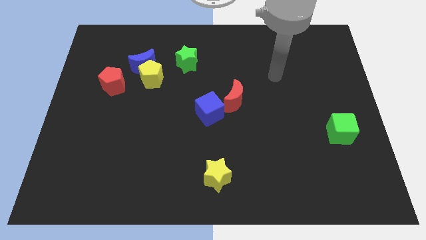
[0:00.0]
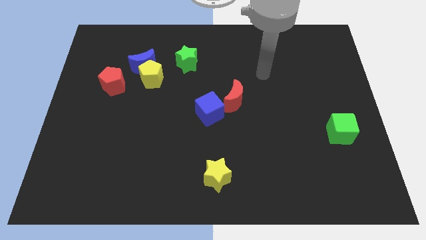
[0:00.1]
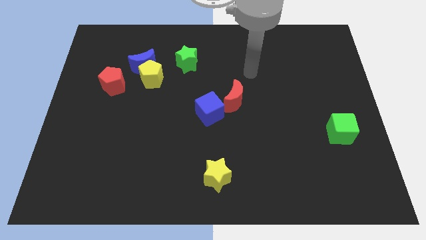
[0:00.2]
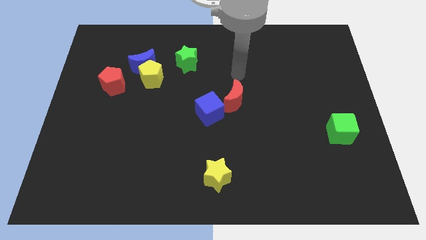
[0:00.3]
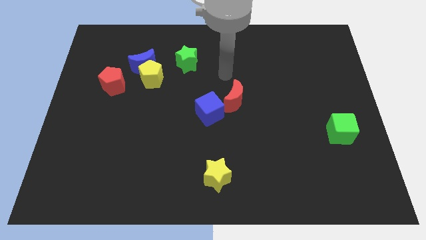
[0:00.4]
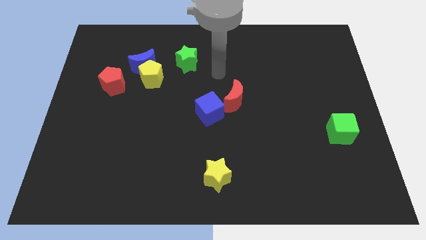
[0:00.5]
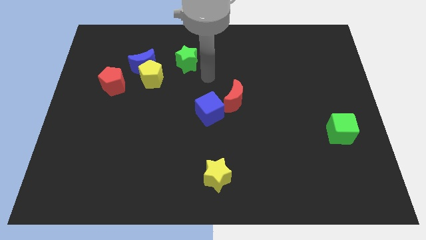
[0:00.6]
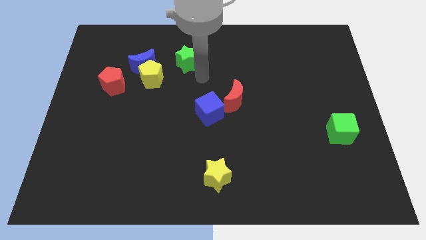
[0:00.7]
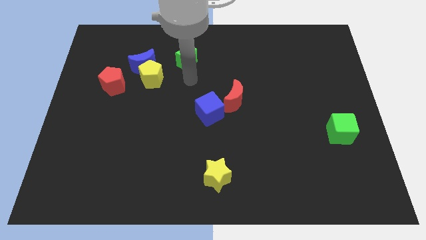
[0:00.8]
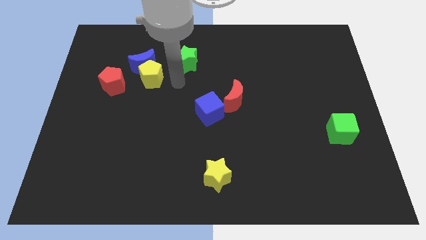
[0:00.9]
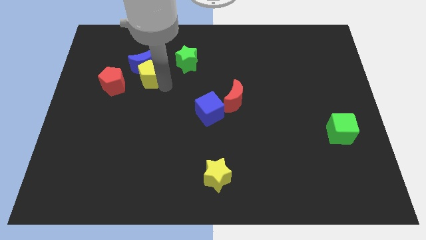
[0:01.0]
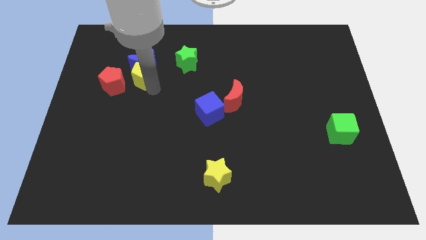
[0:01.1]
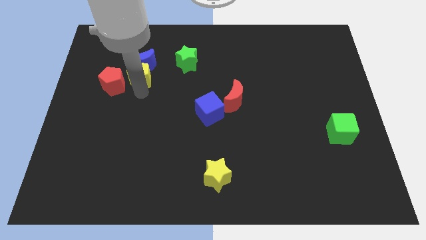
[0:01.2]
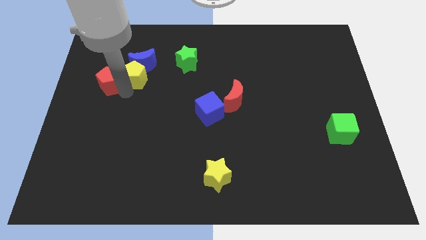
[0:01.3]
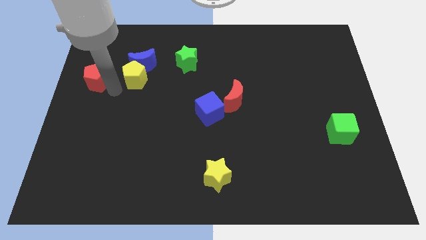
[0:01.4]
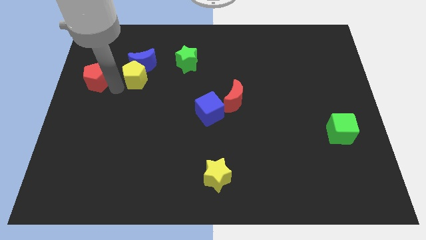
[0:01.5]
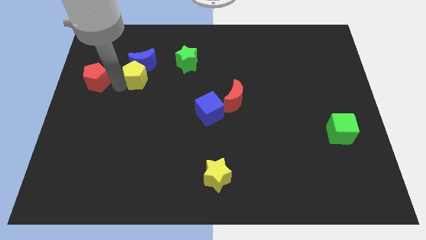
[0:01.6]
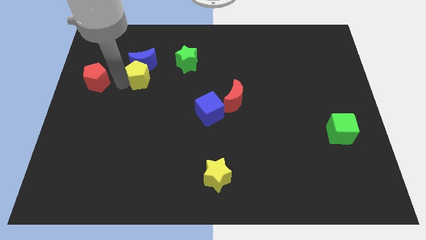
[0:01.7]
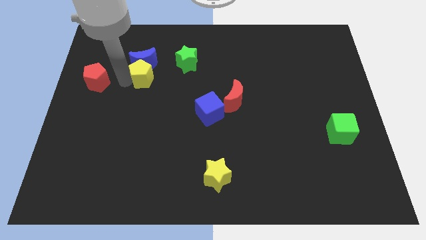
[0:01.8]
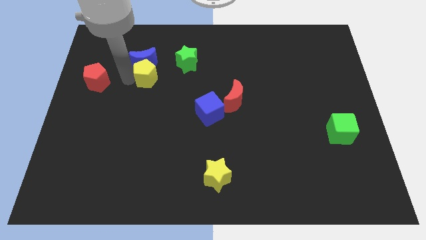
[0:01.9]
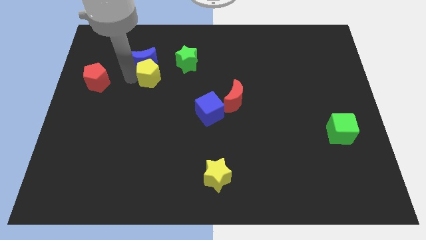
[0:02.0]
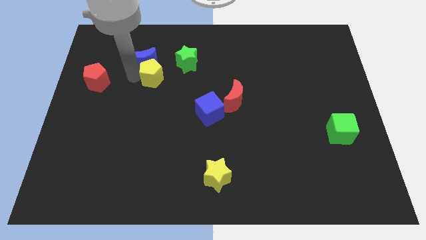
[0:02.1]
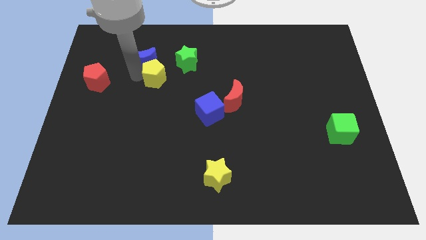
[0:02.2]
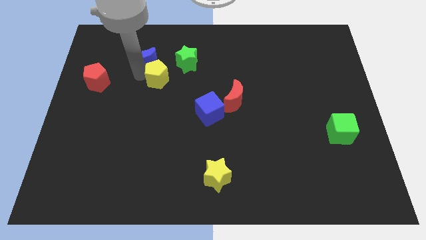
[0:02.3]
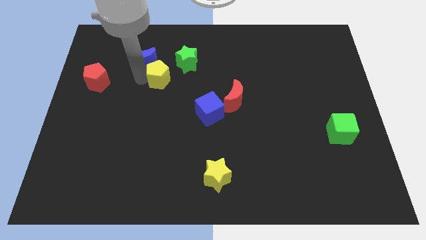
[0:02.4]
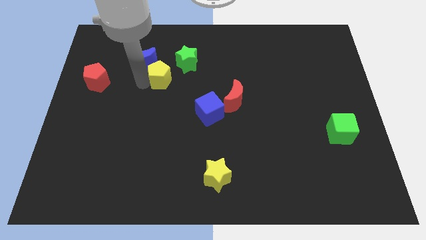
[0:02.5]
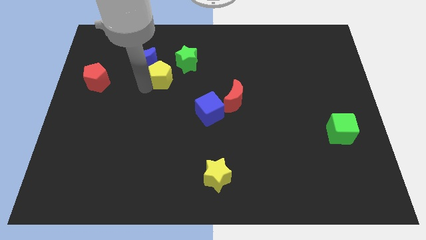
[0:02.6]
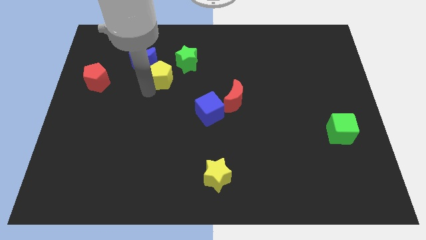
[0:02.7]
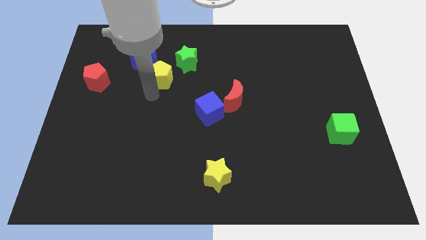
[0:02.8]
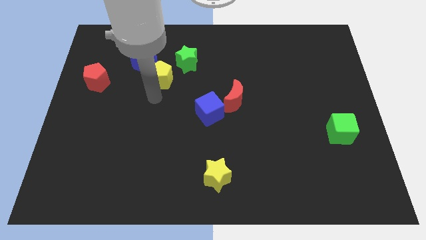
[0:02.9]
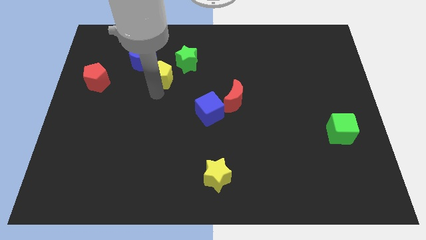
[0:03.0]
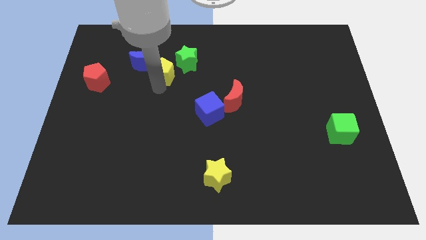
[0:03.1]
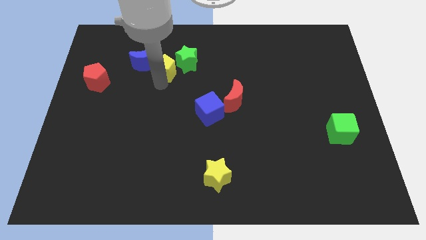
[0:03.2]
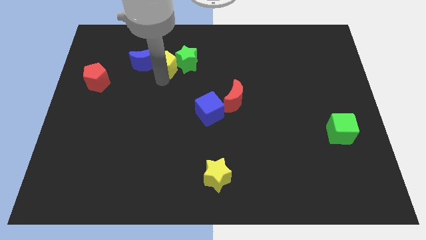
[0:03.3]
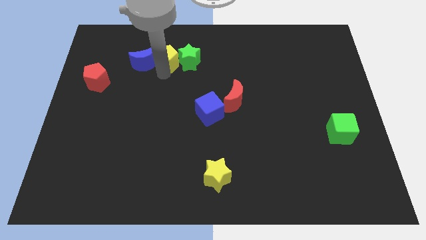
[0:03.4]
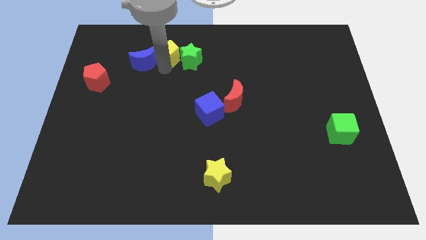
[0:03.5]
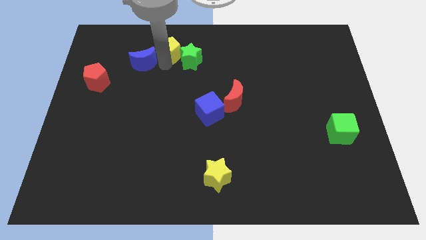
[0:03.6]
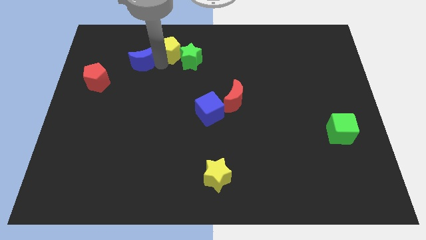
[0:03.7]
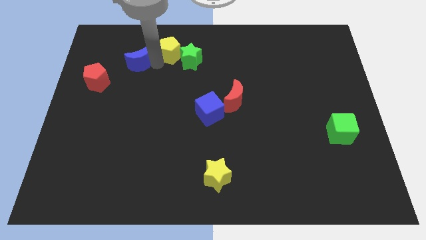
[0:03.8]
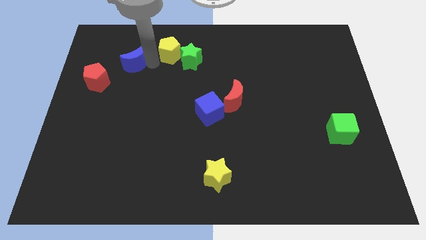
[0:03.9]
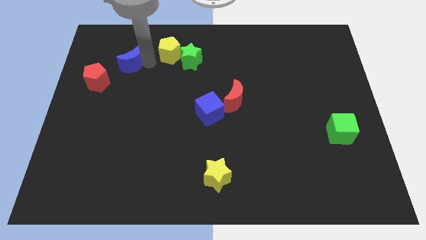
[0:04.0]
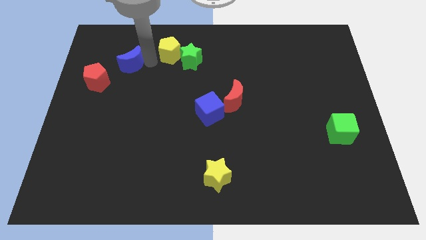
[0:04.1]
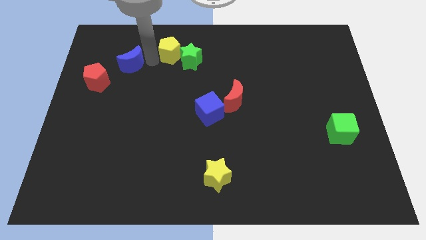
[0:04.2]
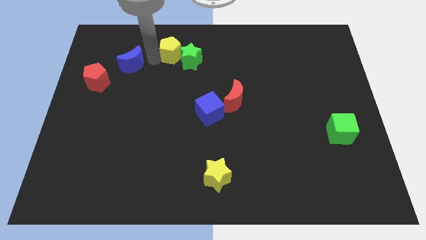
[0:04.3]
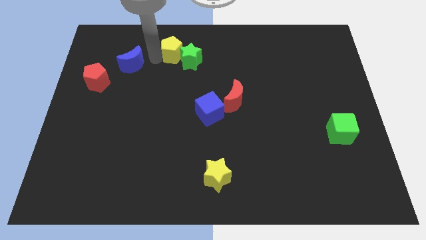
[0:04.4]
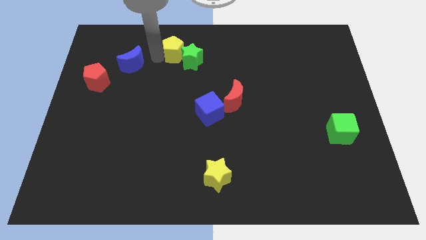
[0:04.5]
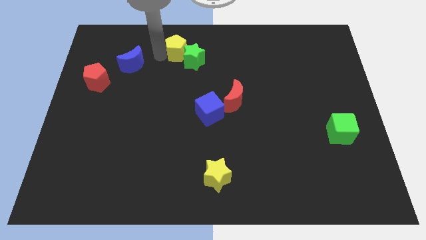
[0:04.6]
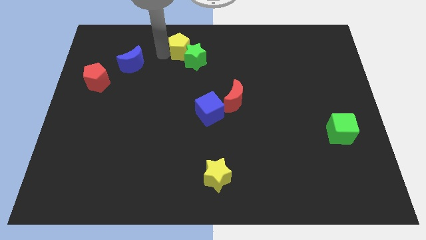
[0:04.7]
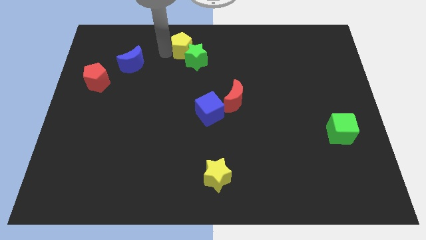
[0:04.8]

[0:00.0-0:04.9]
push the yellow pentagon to the top

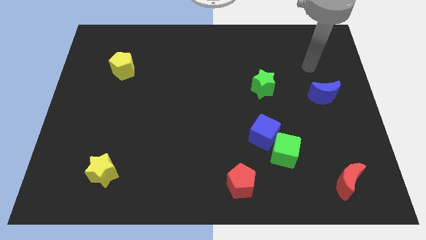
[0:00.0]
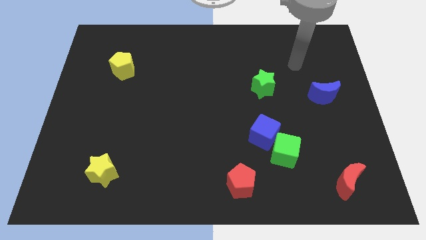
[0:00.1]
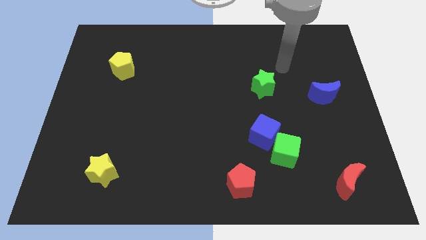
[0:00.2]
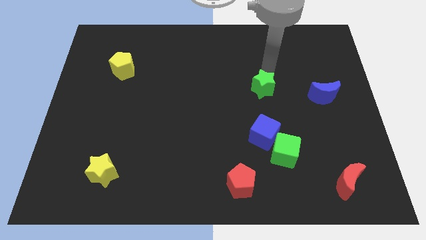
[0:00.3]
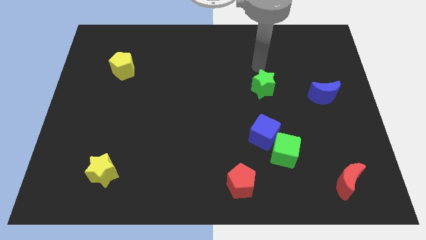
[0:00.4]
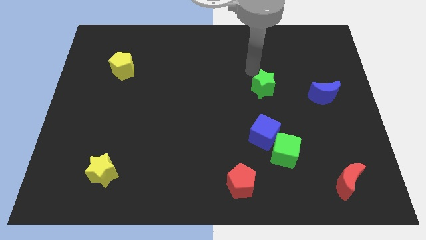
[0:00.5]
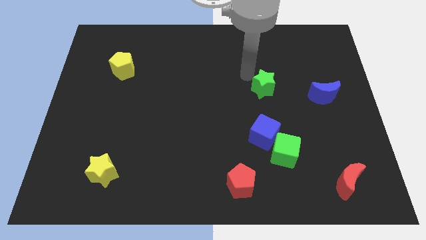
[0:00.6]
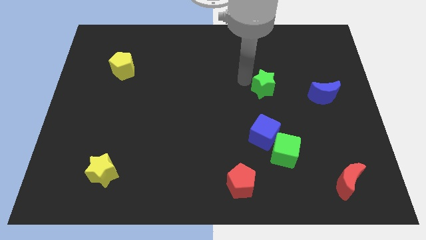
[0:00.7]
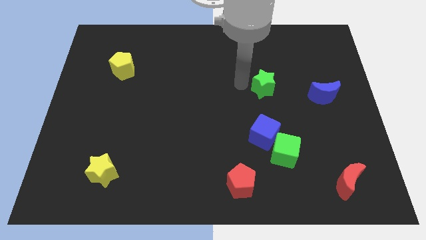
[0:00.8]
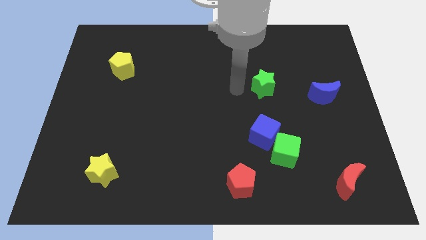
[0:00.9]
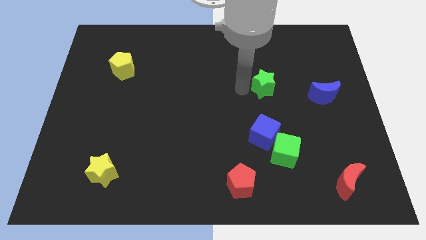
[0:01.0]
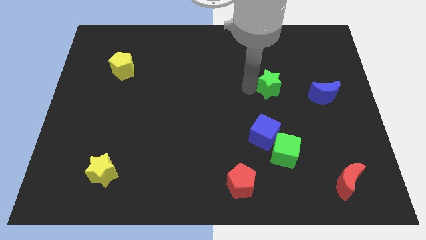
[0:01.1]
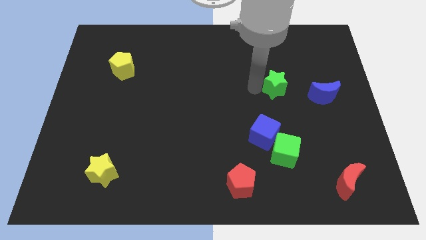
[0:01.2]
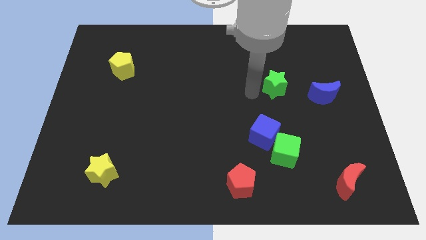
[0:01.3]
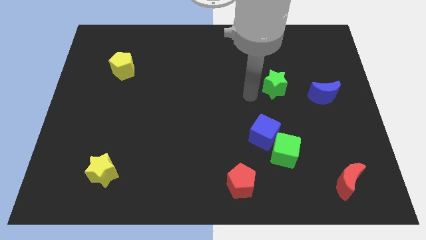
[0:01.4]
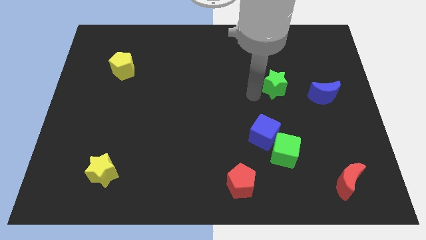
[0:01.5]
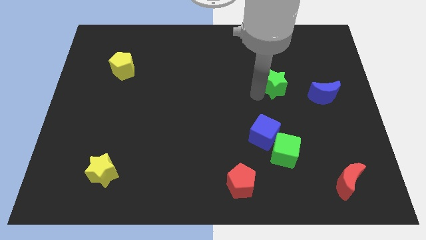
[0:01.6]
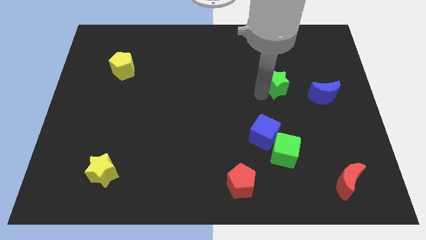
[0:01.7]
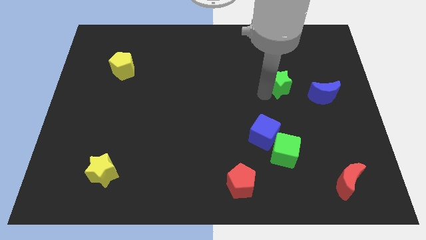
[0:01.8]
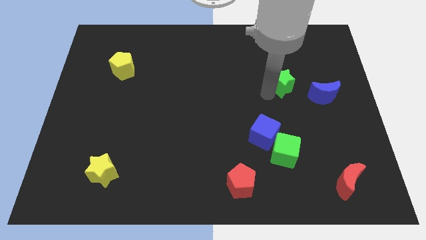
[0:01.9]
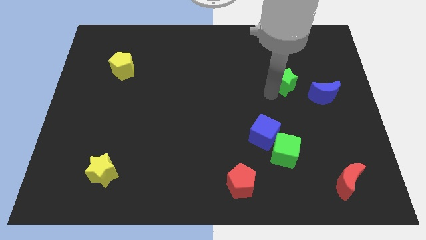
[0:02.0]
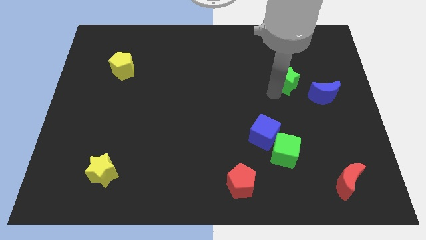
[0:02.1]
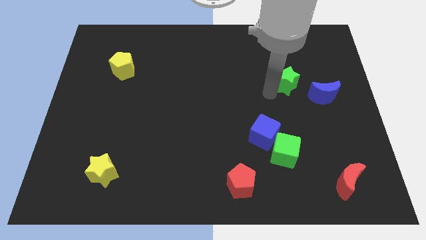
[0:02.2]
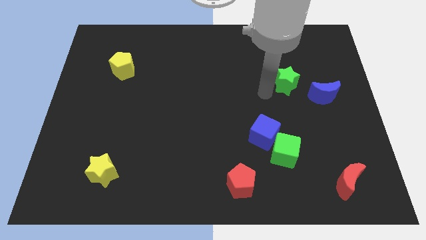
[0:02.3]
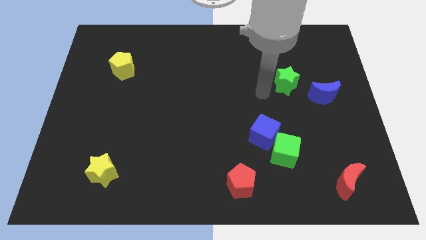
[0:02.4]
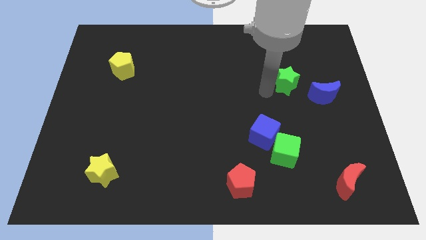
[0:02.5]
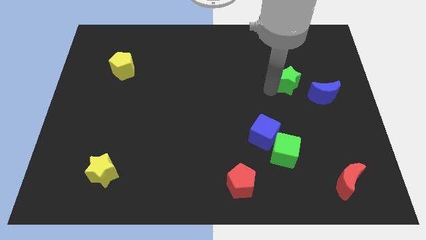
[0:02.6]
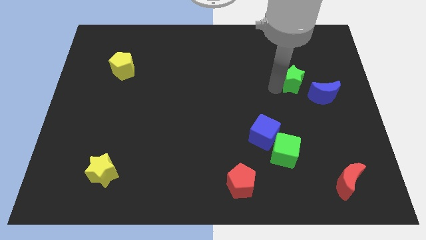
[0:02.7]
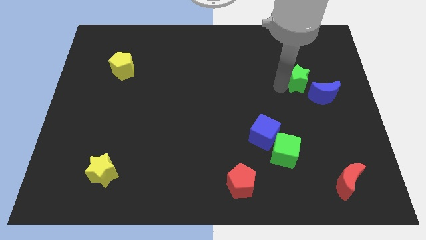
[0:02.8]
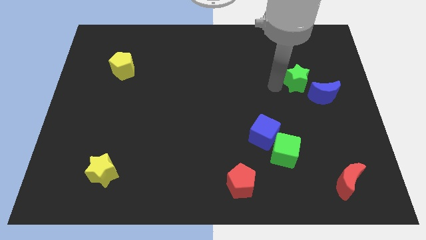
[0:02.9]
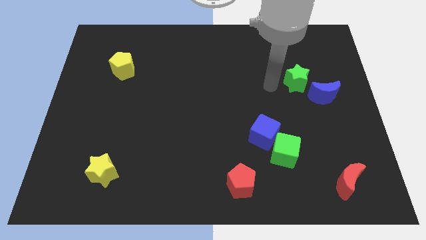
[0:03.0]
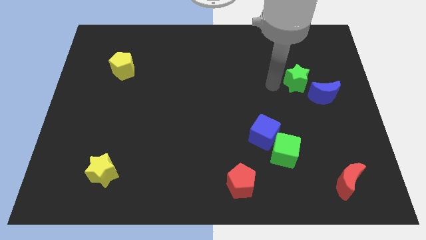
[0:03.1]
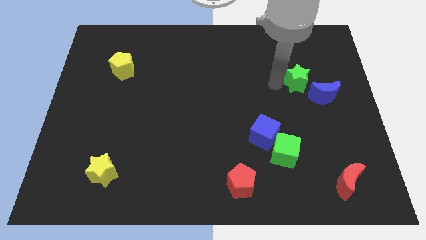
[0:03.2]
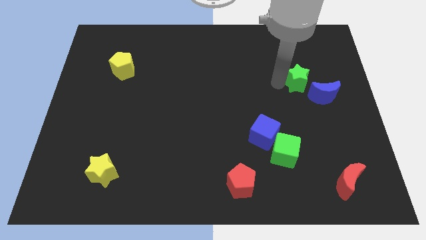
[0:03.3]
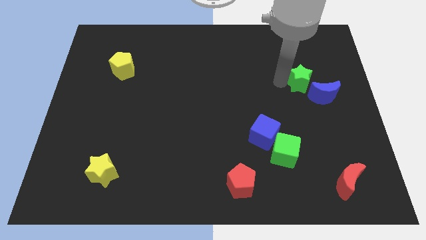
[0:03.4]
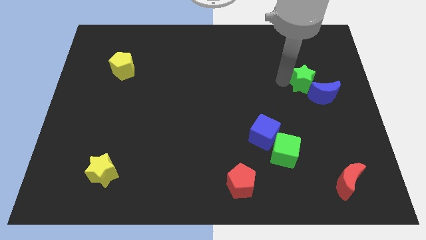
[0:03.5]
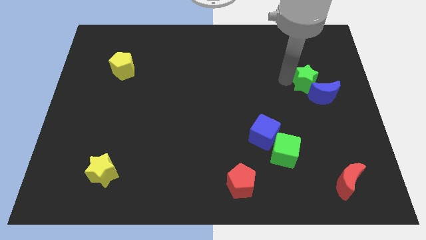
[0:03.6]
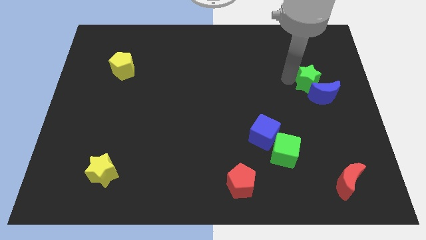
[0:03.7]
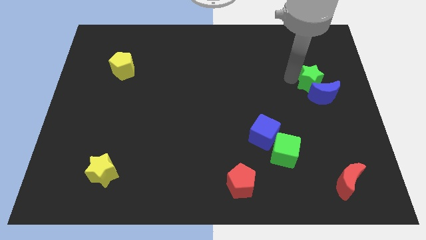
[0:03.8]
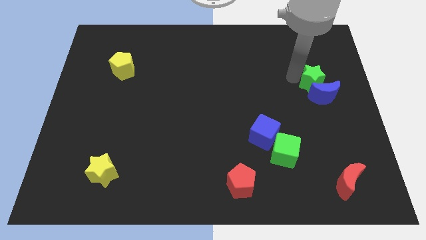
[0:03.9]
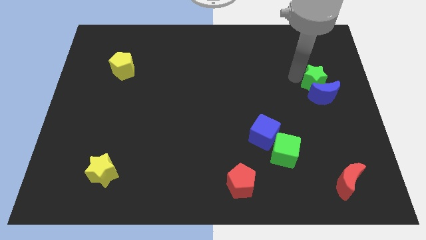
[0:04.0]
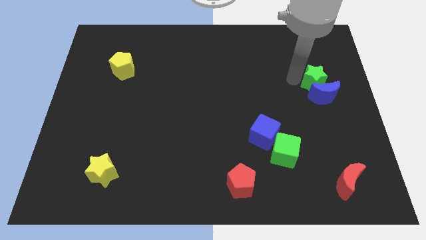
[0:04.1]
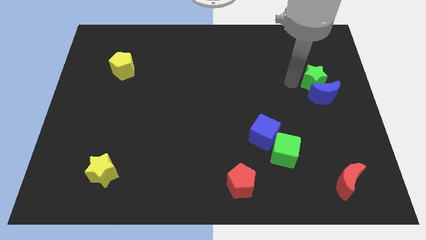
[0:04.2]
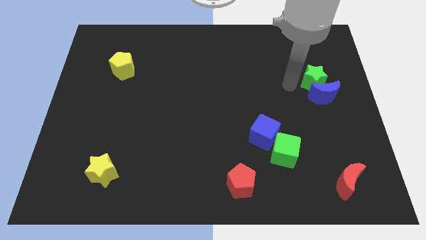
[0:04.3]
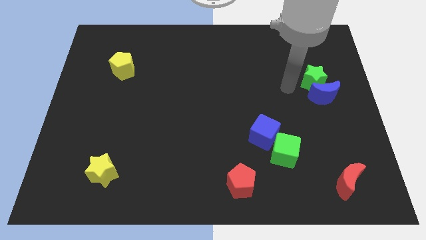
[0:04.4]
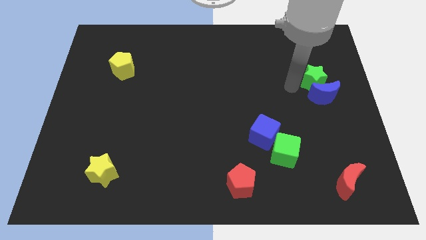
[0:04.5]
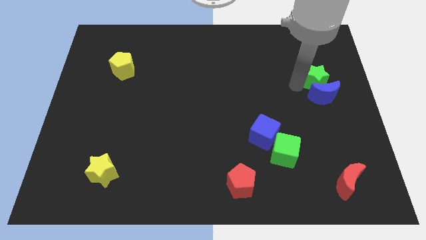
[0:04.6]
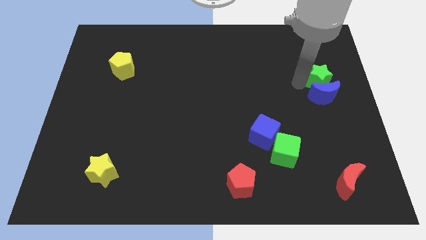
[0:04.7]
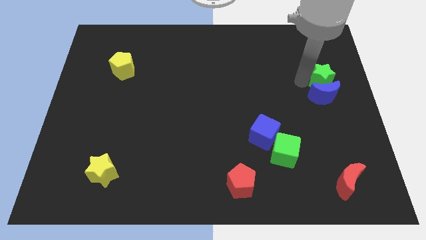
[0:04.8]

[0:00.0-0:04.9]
move the green star to the right side of the board
